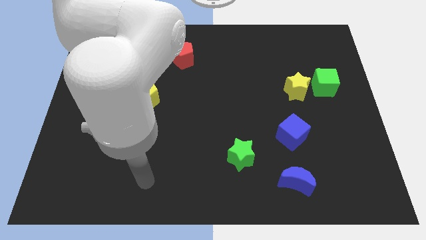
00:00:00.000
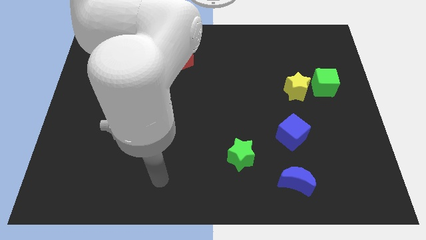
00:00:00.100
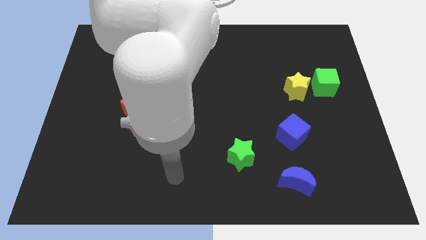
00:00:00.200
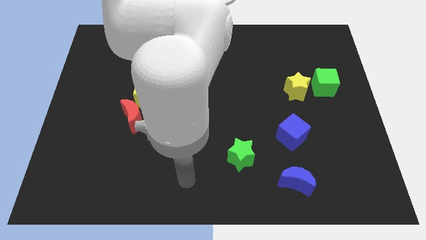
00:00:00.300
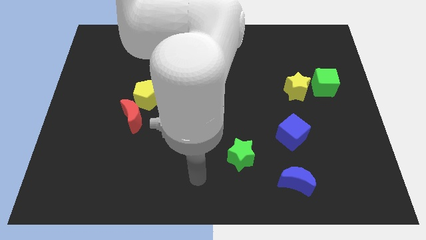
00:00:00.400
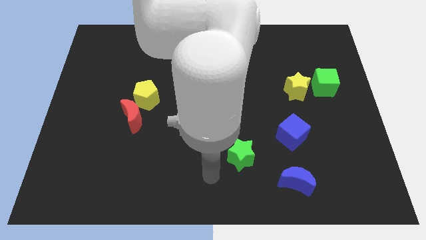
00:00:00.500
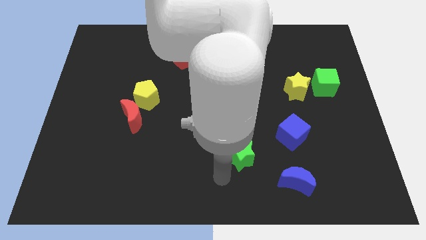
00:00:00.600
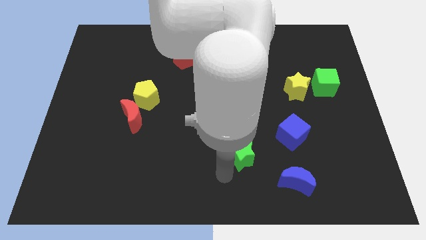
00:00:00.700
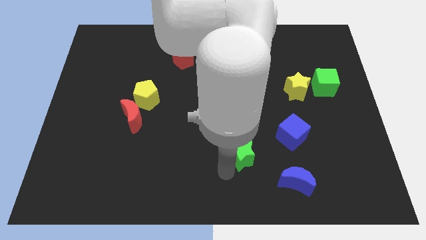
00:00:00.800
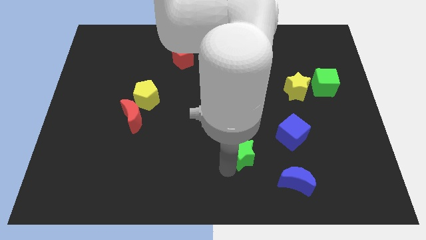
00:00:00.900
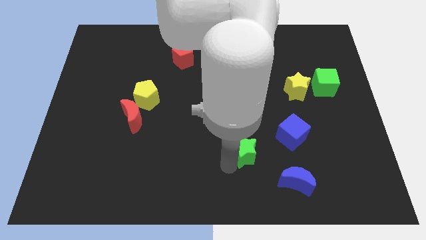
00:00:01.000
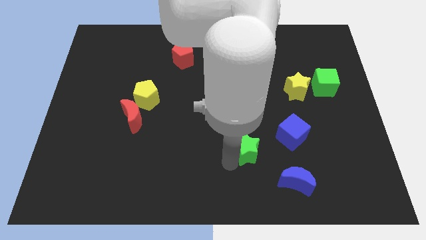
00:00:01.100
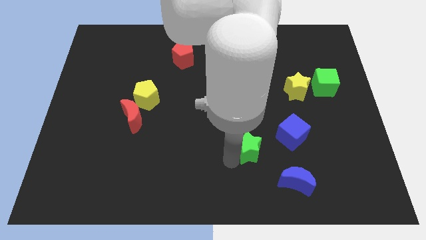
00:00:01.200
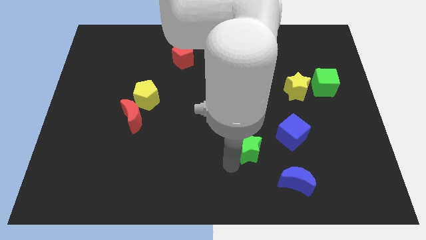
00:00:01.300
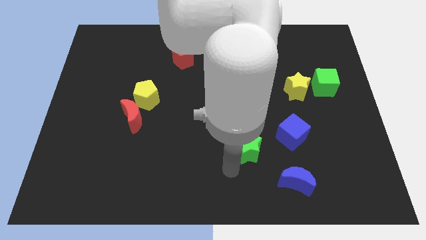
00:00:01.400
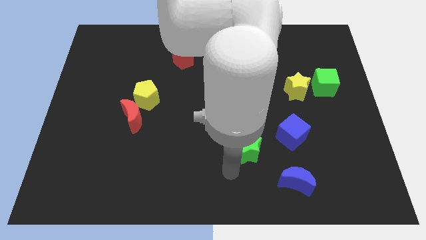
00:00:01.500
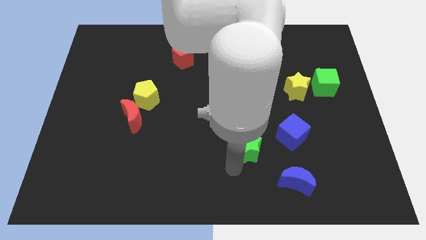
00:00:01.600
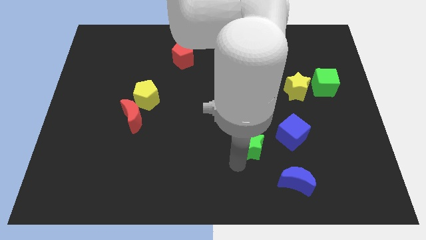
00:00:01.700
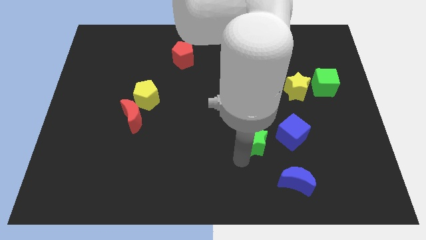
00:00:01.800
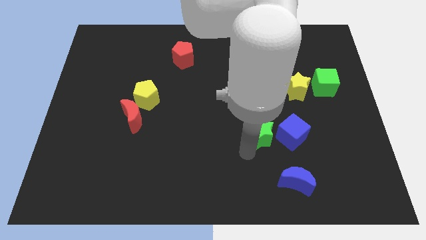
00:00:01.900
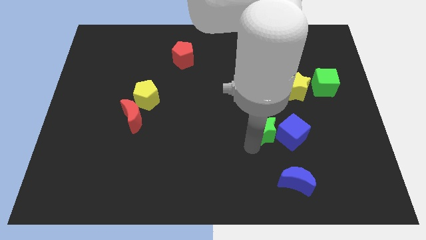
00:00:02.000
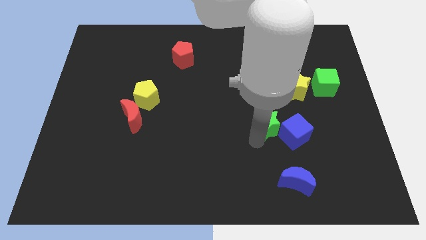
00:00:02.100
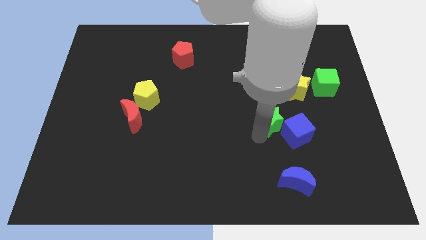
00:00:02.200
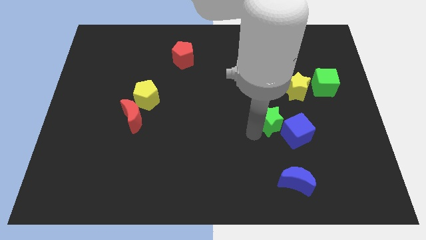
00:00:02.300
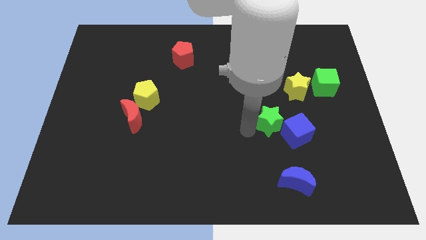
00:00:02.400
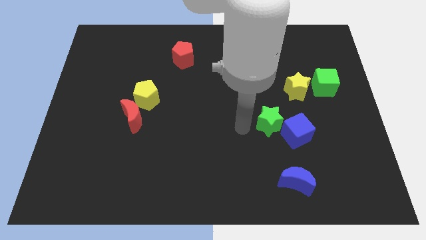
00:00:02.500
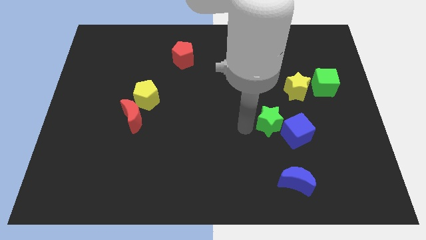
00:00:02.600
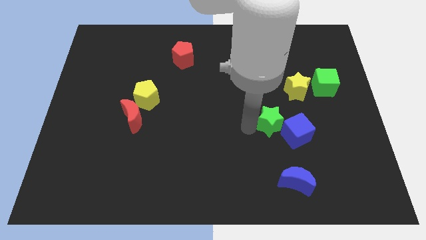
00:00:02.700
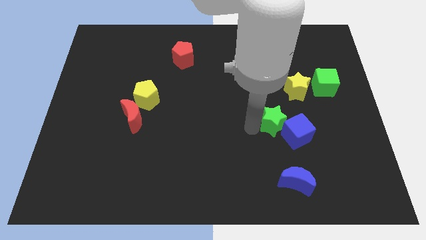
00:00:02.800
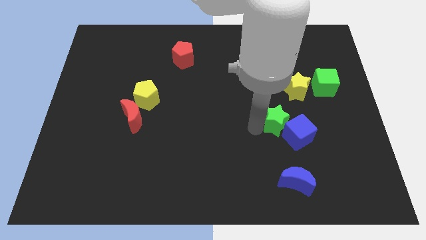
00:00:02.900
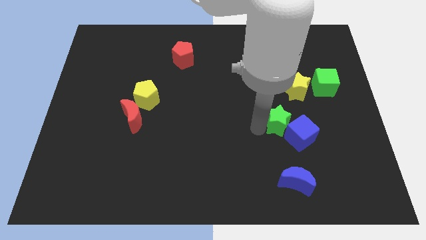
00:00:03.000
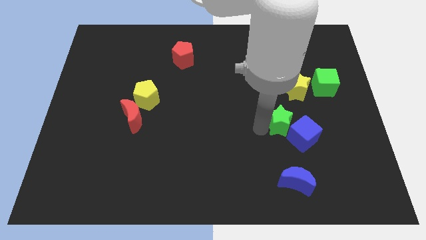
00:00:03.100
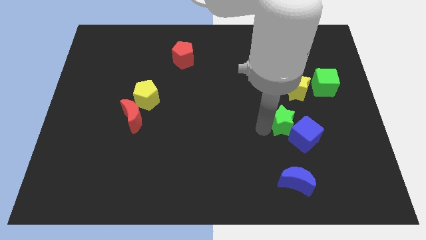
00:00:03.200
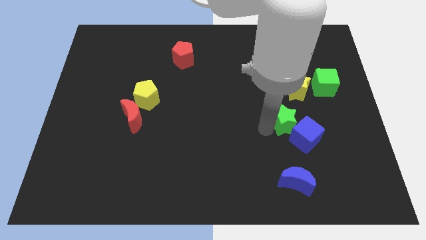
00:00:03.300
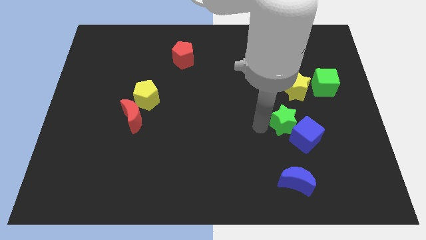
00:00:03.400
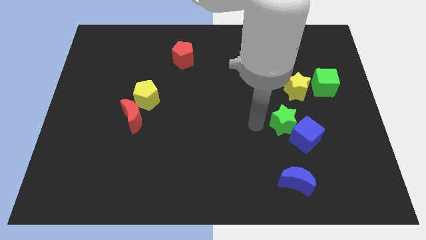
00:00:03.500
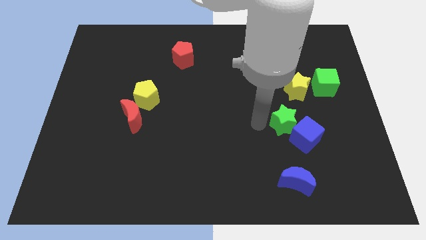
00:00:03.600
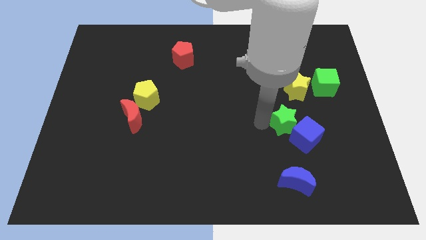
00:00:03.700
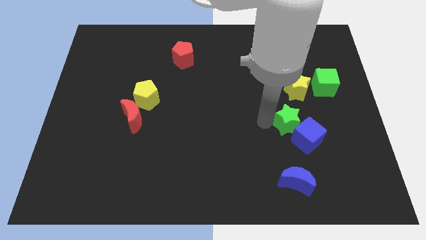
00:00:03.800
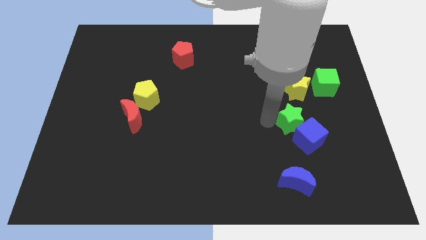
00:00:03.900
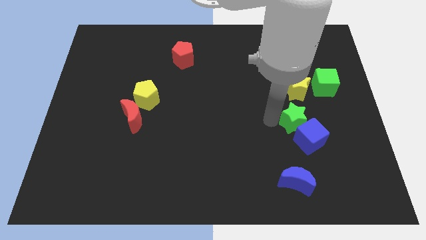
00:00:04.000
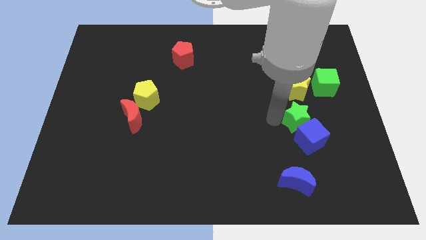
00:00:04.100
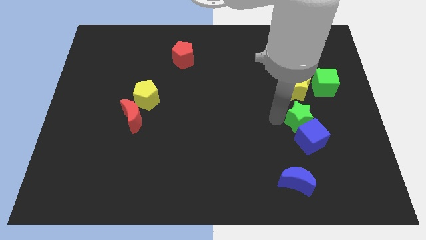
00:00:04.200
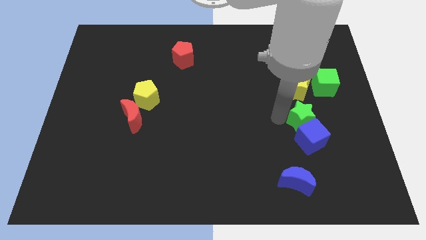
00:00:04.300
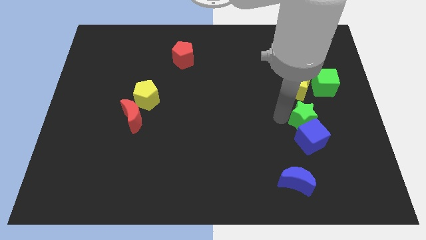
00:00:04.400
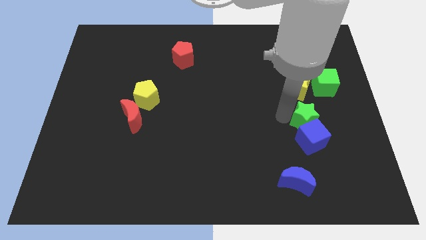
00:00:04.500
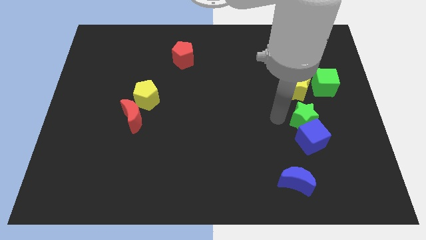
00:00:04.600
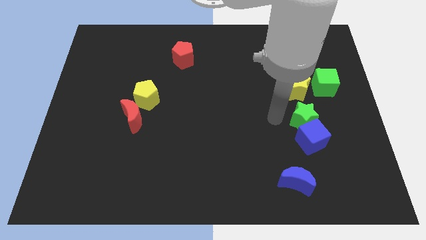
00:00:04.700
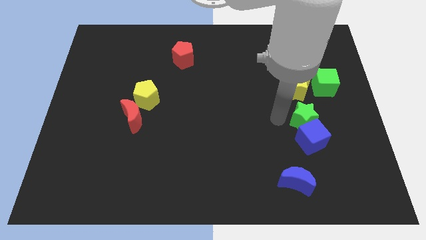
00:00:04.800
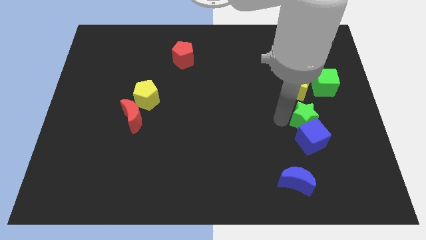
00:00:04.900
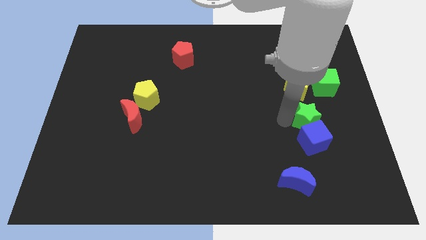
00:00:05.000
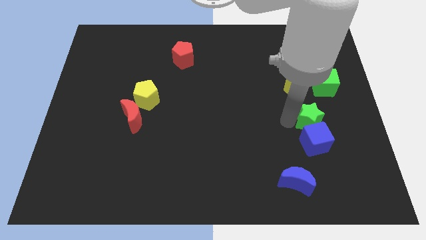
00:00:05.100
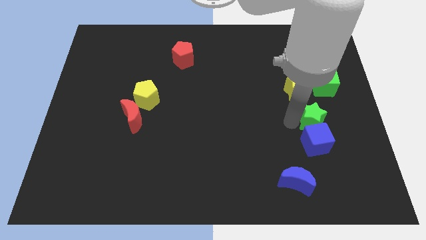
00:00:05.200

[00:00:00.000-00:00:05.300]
move the green star to the bottom of the green cube
